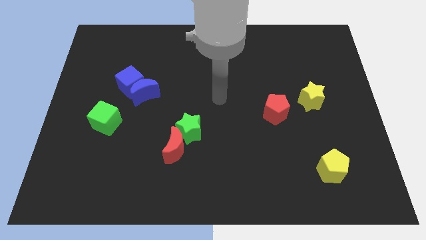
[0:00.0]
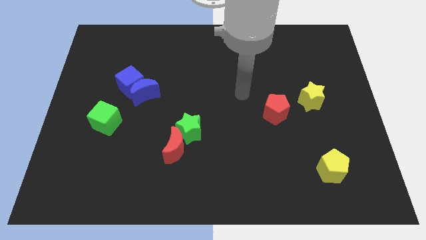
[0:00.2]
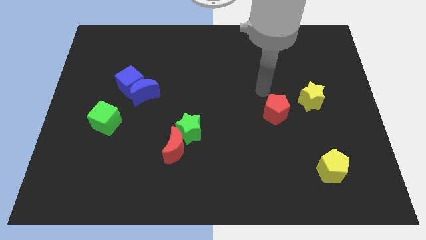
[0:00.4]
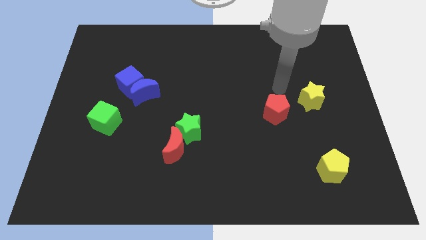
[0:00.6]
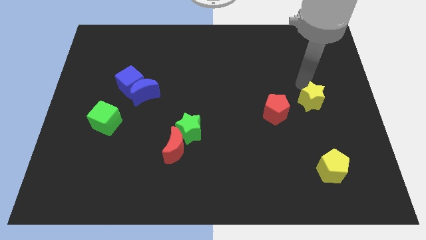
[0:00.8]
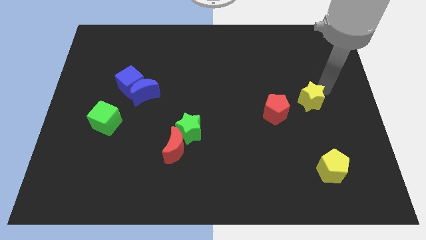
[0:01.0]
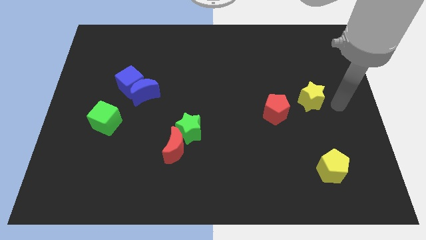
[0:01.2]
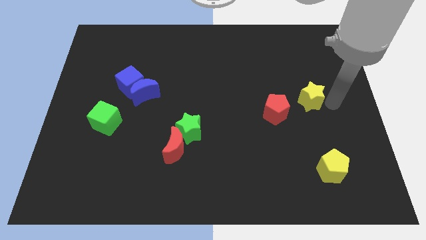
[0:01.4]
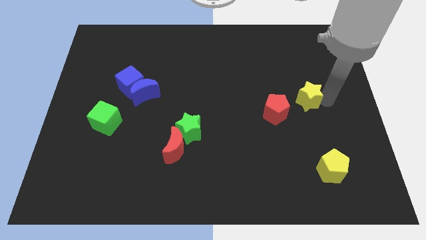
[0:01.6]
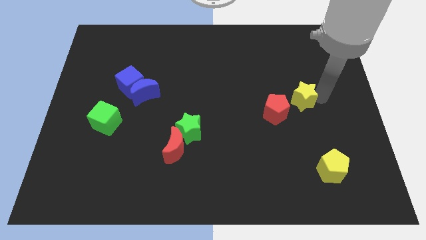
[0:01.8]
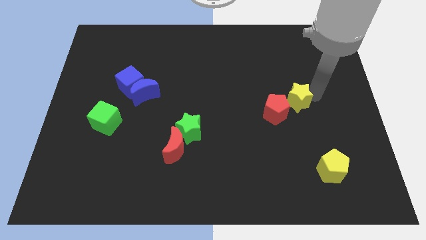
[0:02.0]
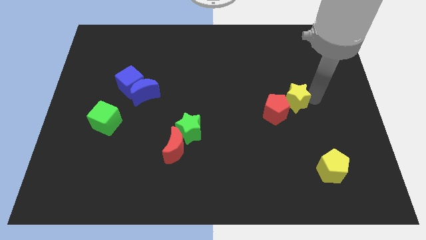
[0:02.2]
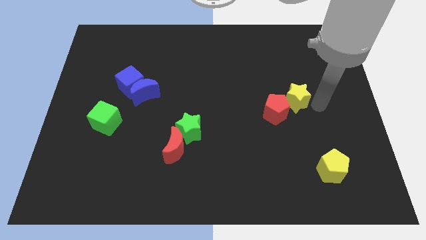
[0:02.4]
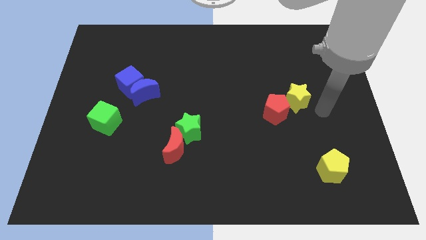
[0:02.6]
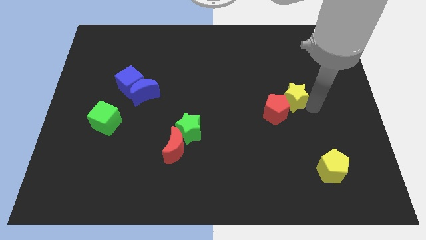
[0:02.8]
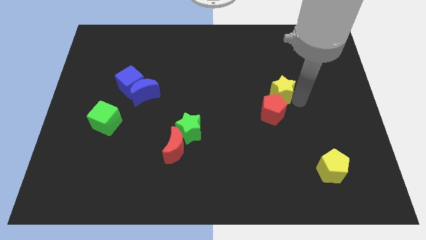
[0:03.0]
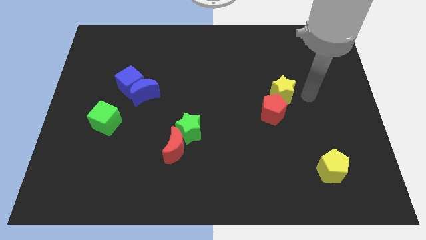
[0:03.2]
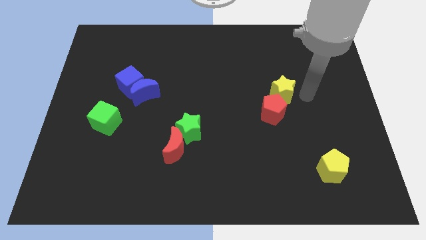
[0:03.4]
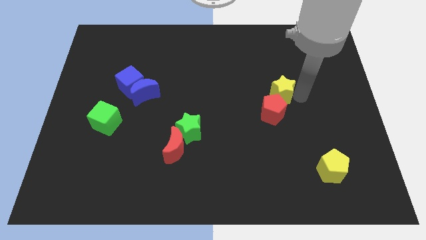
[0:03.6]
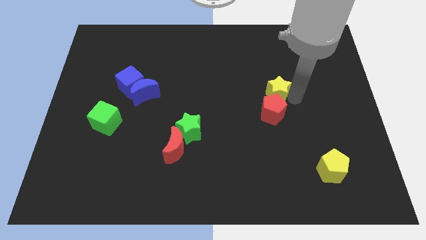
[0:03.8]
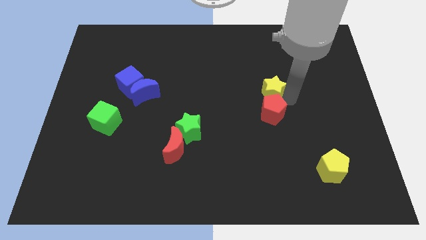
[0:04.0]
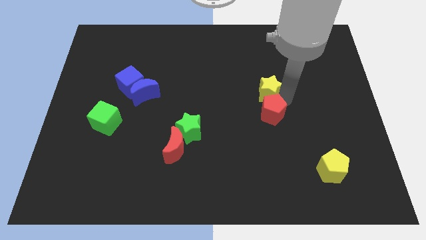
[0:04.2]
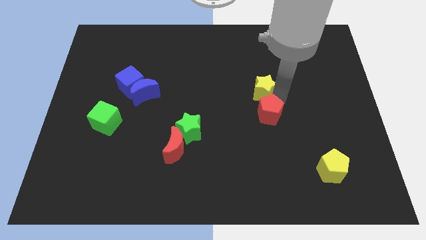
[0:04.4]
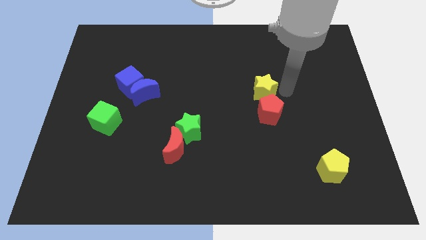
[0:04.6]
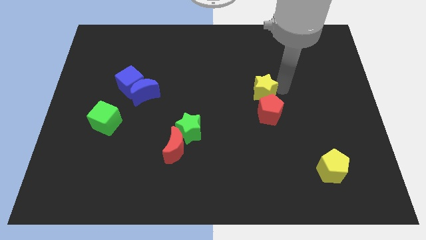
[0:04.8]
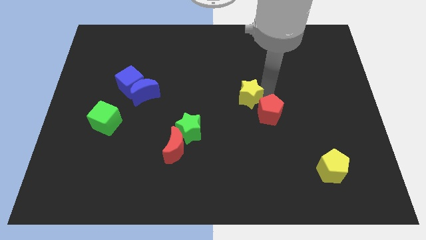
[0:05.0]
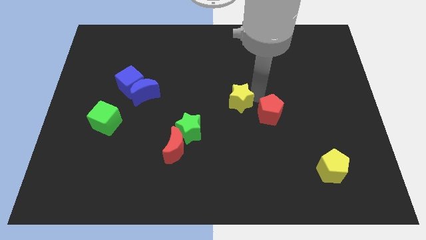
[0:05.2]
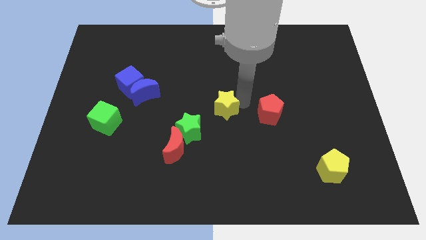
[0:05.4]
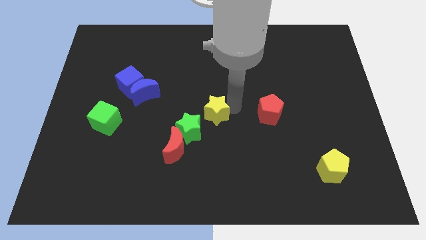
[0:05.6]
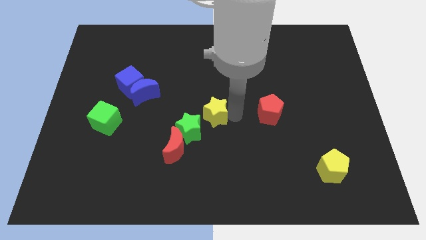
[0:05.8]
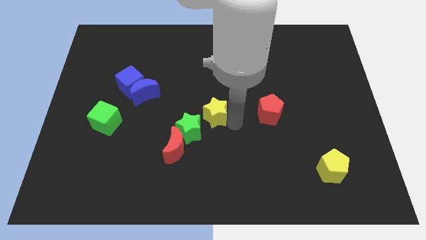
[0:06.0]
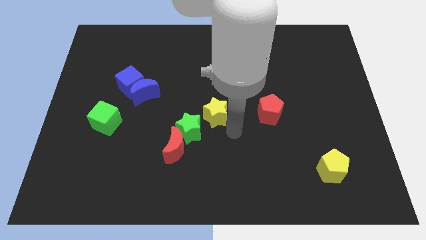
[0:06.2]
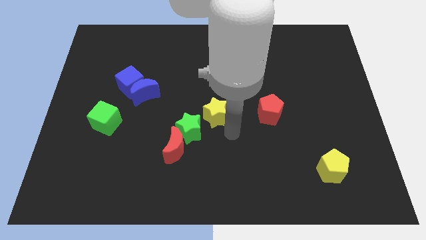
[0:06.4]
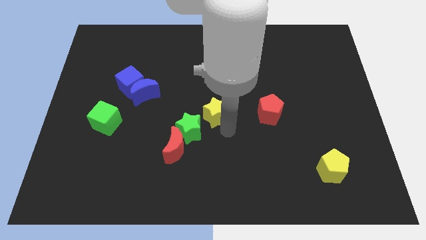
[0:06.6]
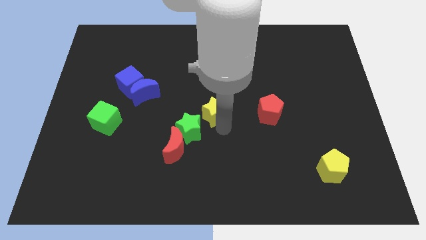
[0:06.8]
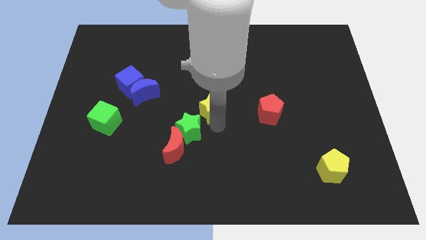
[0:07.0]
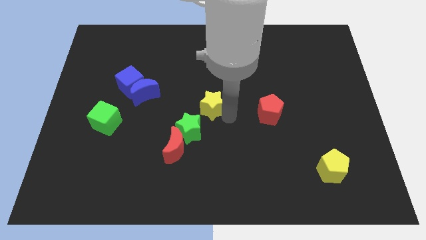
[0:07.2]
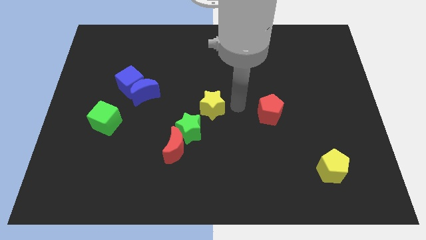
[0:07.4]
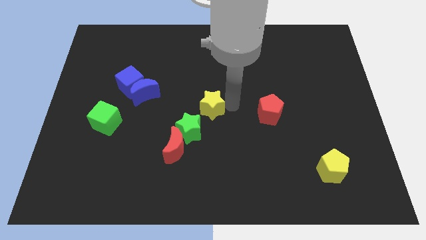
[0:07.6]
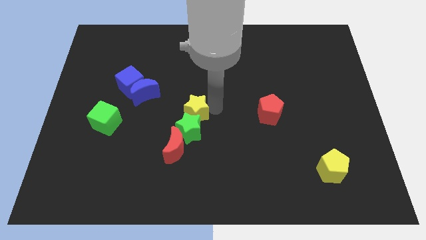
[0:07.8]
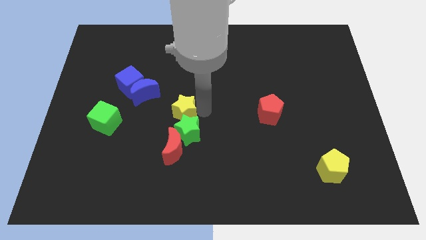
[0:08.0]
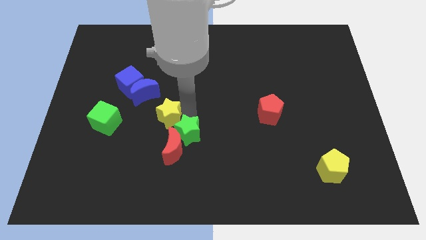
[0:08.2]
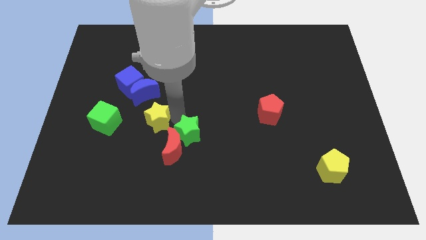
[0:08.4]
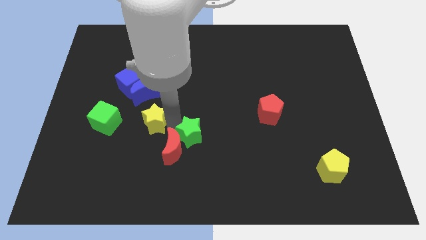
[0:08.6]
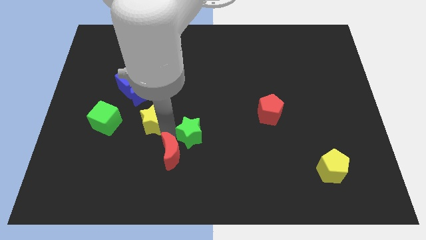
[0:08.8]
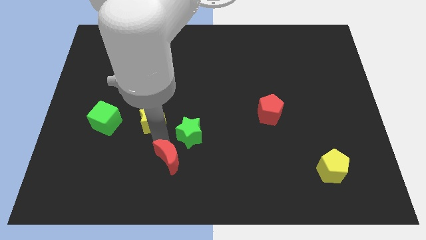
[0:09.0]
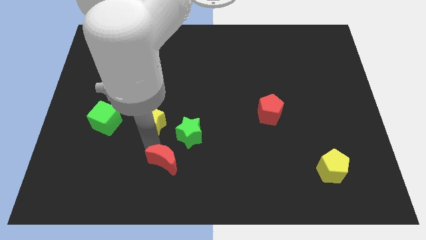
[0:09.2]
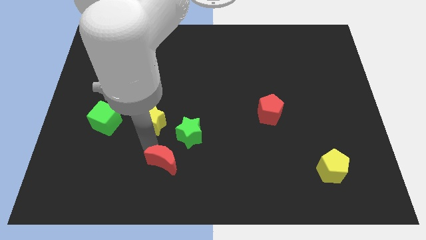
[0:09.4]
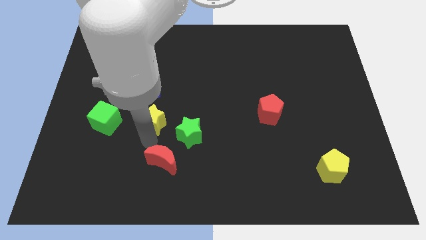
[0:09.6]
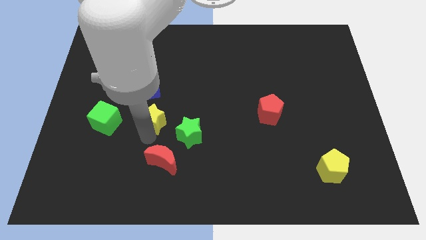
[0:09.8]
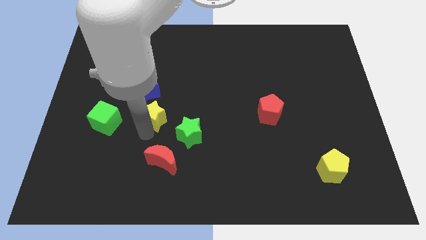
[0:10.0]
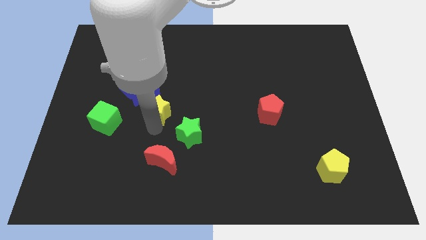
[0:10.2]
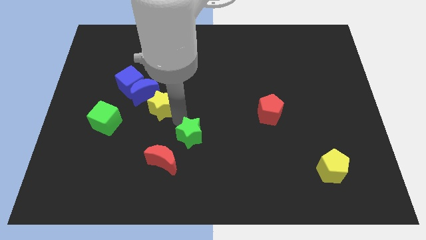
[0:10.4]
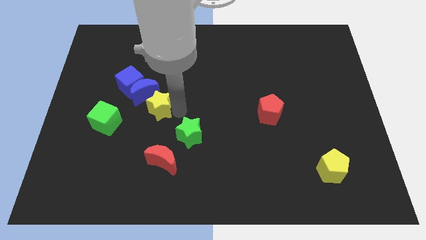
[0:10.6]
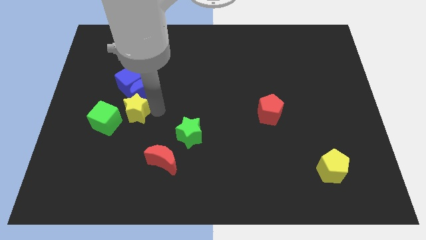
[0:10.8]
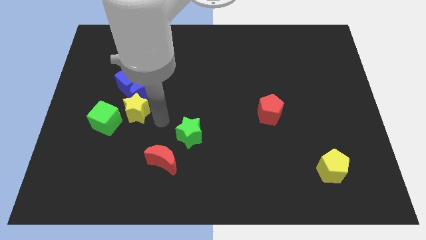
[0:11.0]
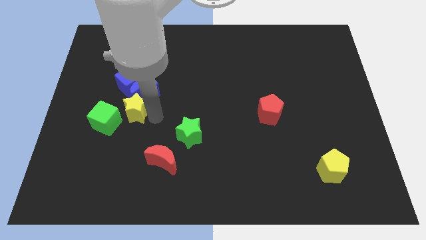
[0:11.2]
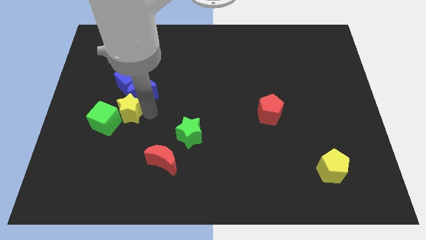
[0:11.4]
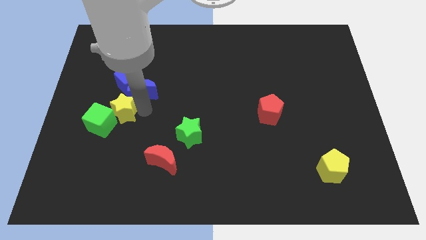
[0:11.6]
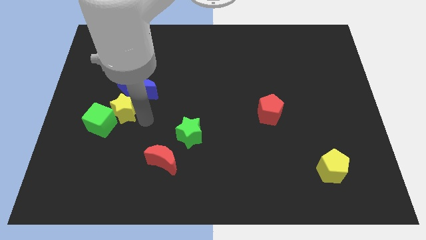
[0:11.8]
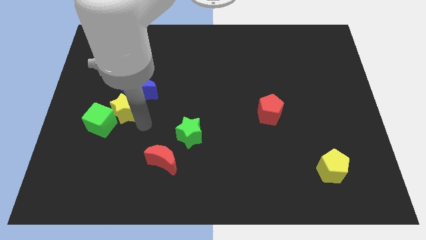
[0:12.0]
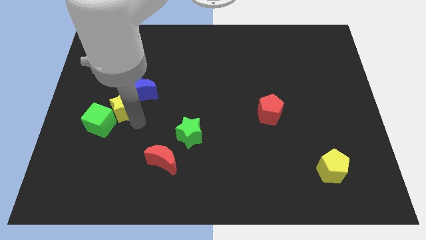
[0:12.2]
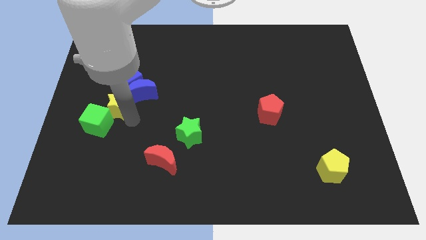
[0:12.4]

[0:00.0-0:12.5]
slide the yellow star diagonally down and to the left of the blue cube

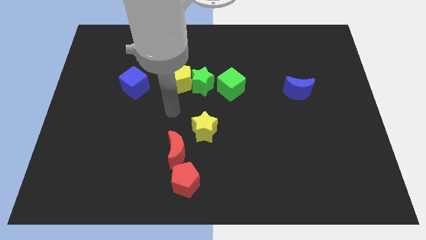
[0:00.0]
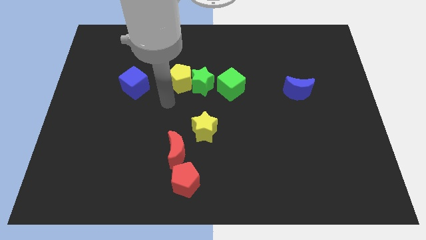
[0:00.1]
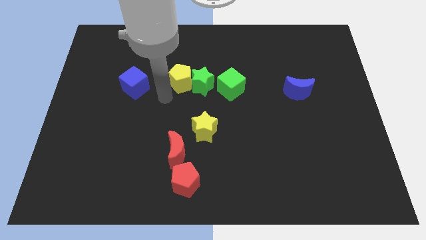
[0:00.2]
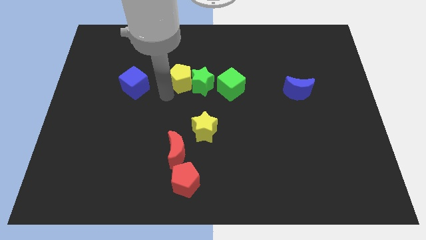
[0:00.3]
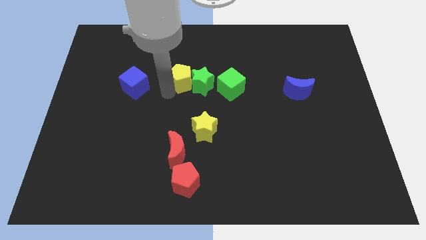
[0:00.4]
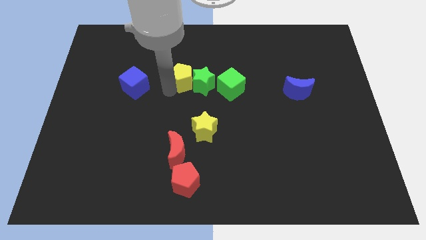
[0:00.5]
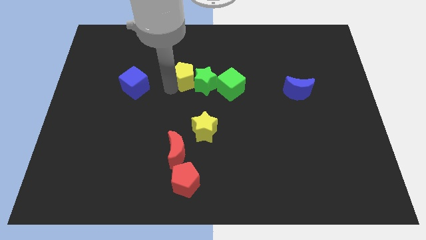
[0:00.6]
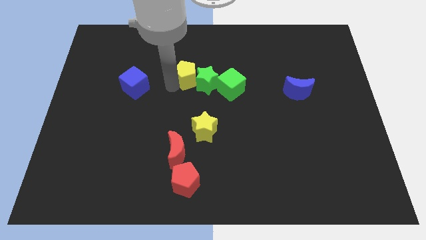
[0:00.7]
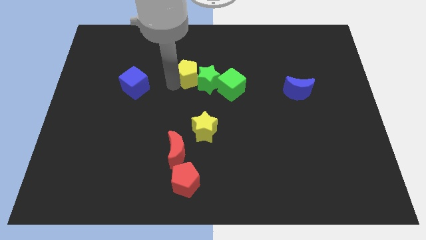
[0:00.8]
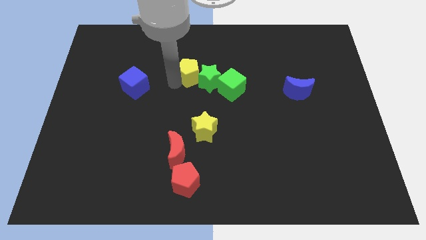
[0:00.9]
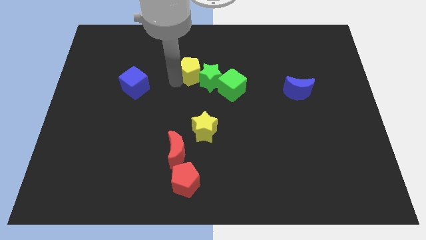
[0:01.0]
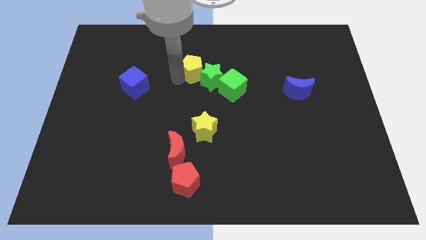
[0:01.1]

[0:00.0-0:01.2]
push the yellow pentagon to the top side of the green star
